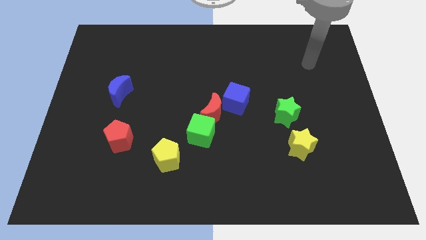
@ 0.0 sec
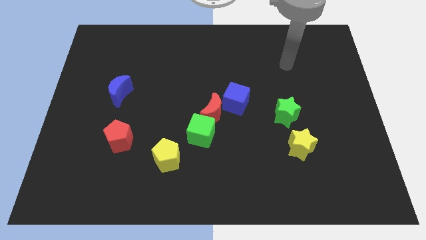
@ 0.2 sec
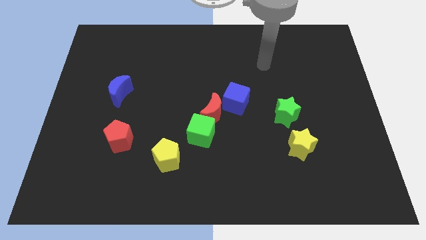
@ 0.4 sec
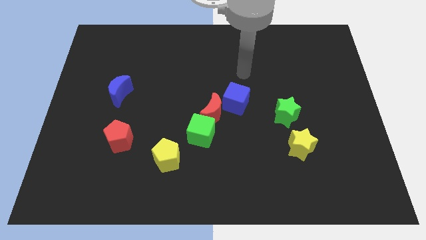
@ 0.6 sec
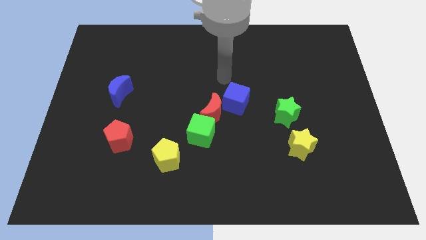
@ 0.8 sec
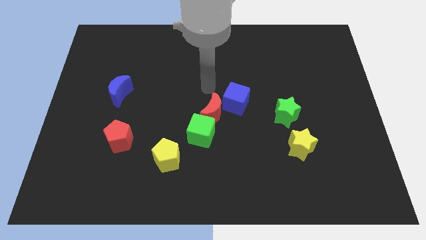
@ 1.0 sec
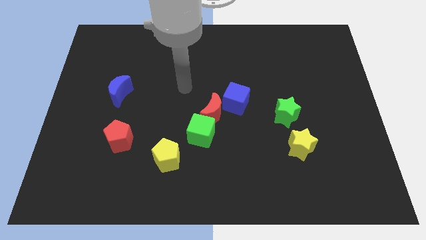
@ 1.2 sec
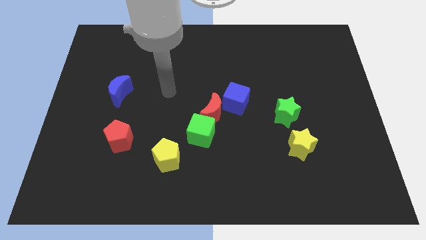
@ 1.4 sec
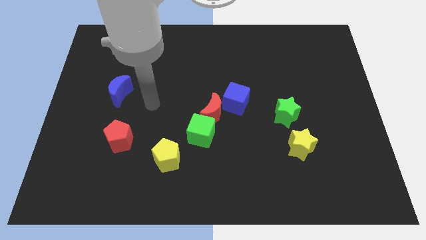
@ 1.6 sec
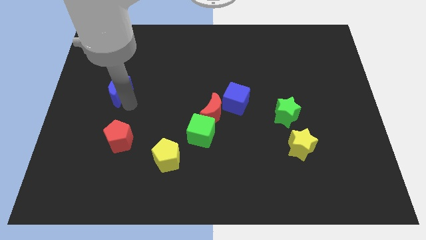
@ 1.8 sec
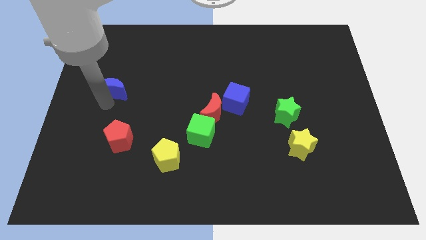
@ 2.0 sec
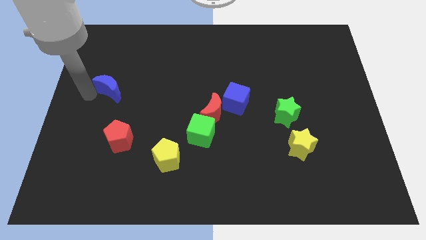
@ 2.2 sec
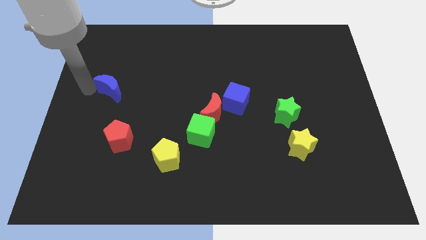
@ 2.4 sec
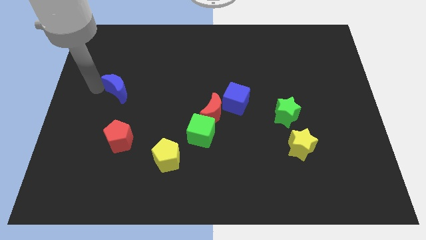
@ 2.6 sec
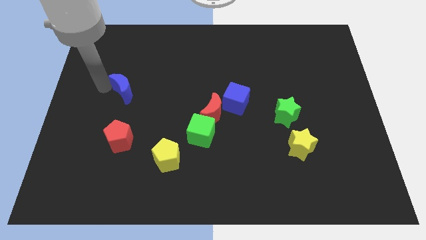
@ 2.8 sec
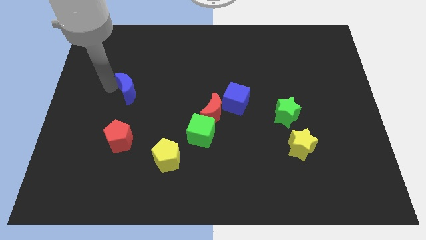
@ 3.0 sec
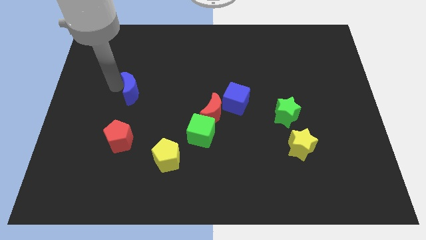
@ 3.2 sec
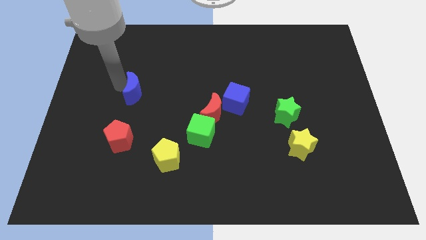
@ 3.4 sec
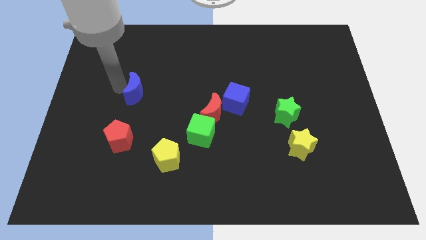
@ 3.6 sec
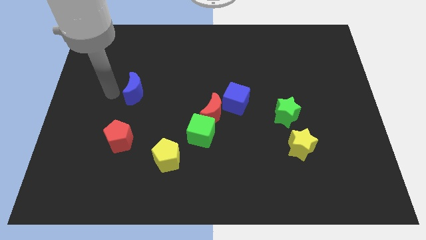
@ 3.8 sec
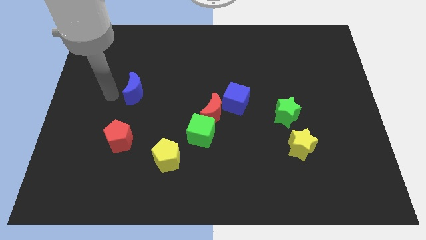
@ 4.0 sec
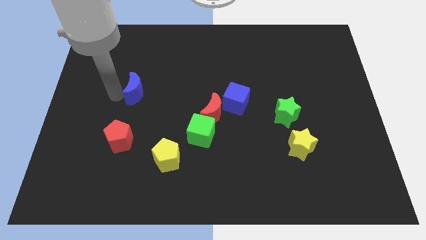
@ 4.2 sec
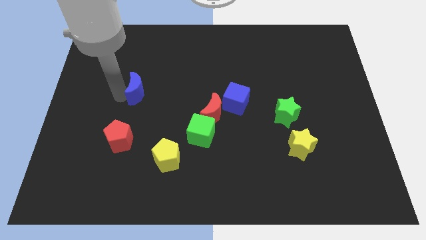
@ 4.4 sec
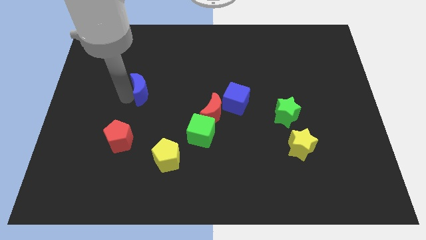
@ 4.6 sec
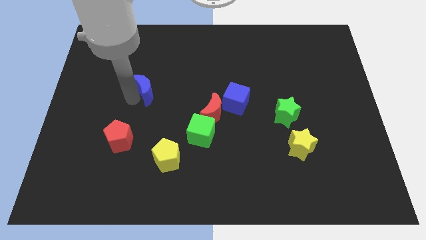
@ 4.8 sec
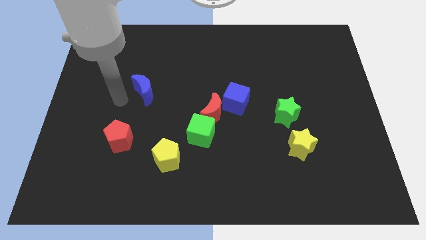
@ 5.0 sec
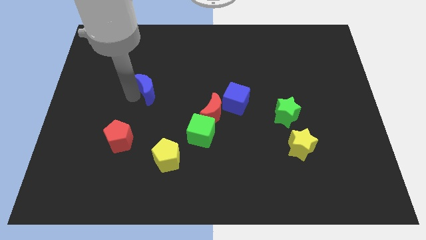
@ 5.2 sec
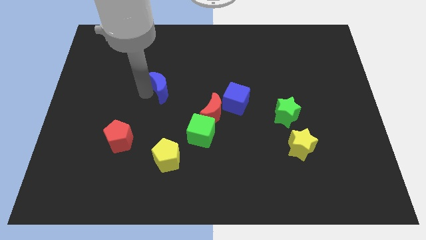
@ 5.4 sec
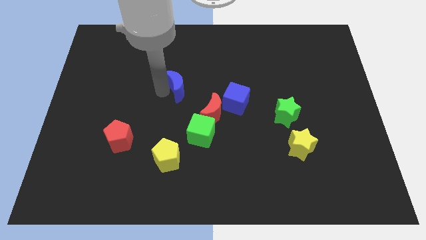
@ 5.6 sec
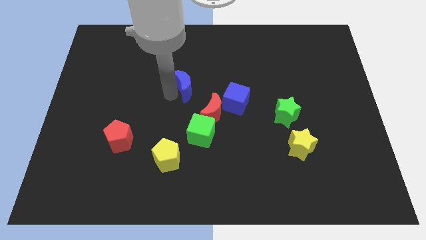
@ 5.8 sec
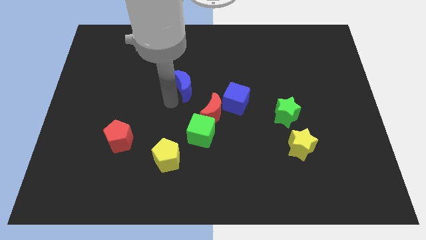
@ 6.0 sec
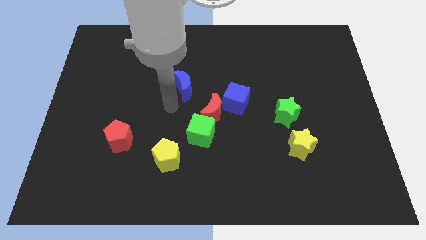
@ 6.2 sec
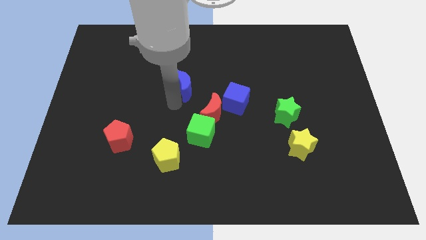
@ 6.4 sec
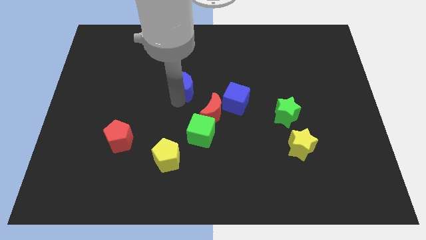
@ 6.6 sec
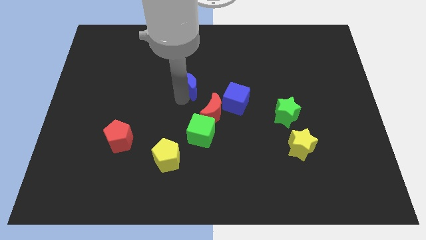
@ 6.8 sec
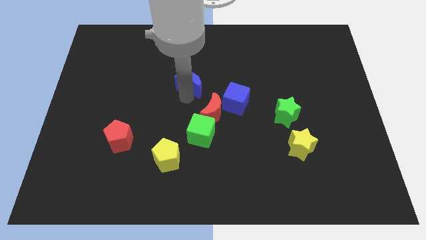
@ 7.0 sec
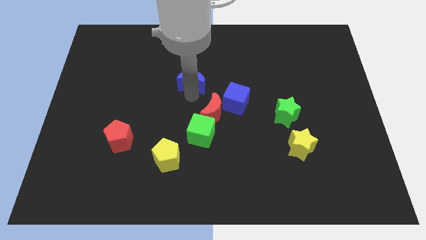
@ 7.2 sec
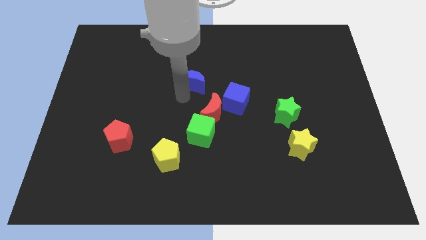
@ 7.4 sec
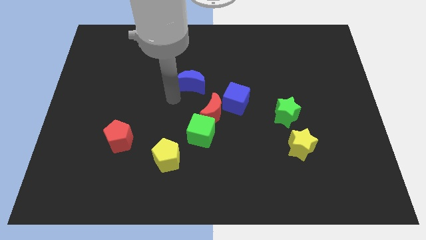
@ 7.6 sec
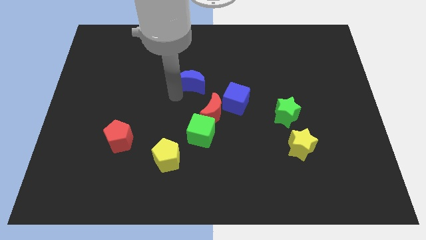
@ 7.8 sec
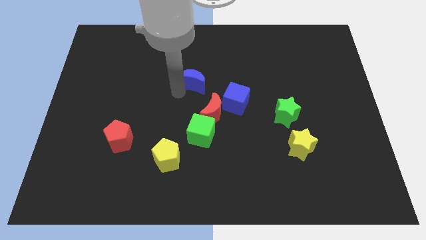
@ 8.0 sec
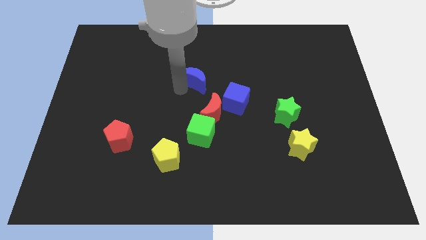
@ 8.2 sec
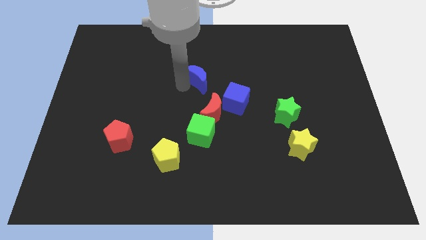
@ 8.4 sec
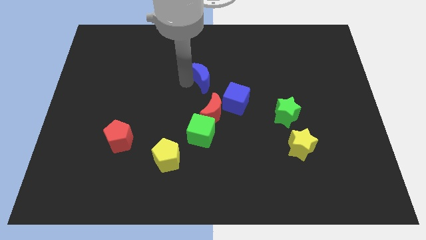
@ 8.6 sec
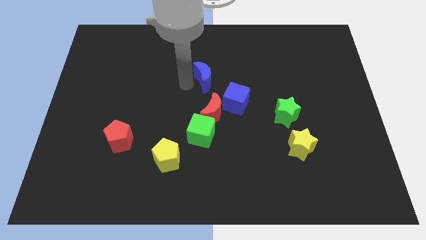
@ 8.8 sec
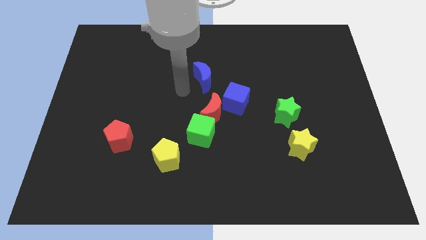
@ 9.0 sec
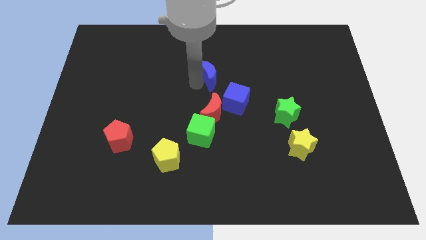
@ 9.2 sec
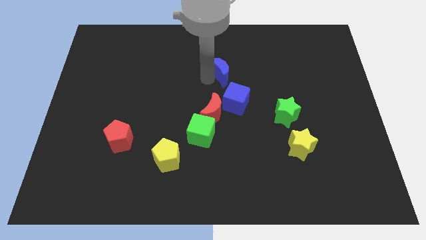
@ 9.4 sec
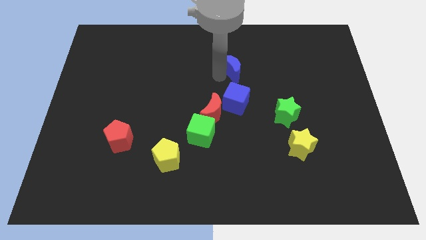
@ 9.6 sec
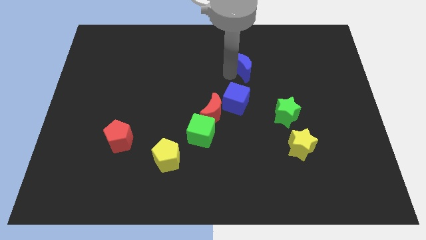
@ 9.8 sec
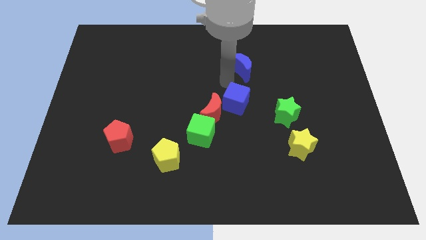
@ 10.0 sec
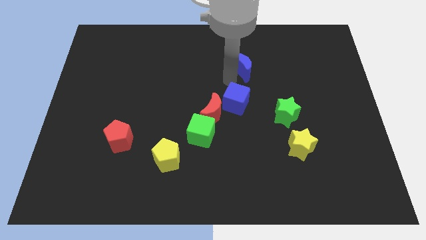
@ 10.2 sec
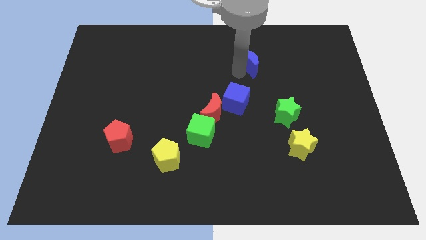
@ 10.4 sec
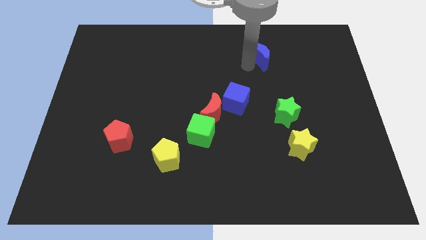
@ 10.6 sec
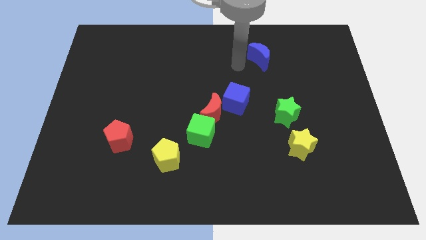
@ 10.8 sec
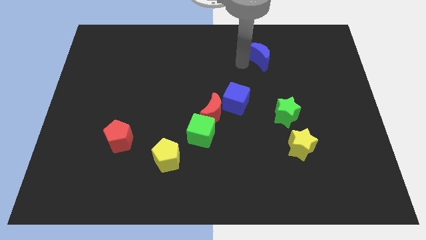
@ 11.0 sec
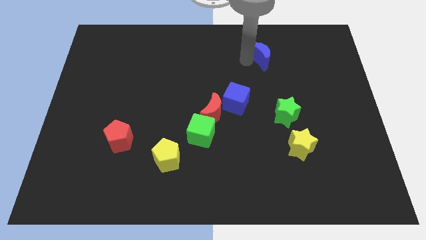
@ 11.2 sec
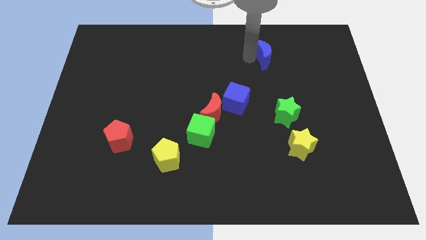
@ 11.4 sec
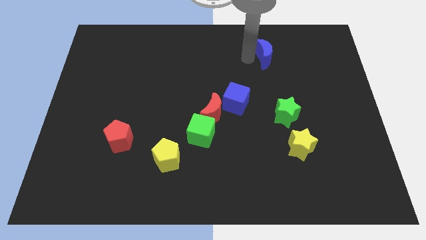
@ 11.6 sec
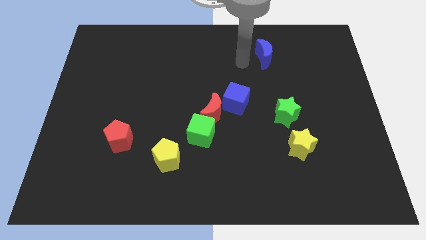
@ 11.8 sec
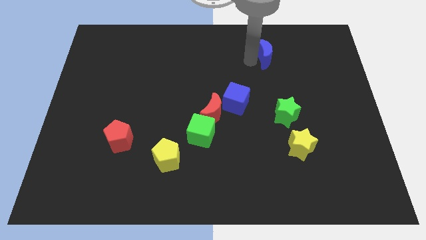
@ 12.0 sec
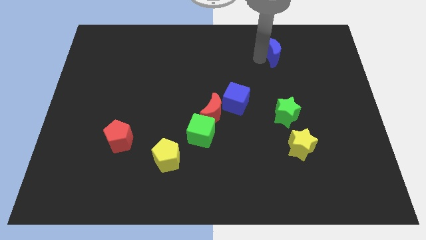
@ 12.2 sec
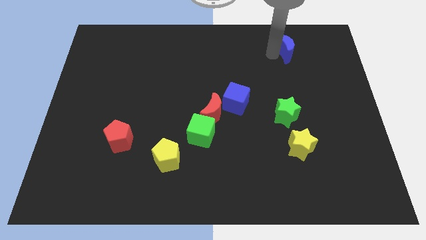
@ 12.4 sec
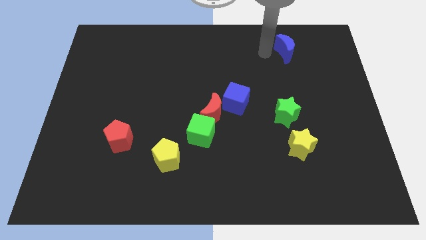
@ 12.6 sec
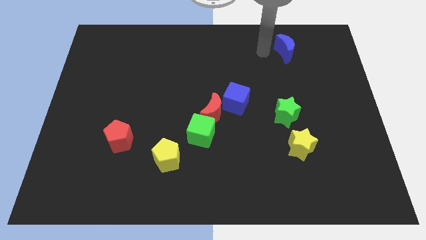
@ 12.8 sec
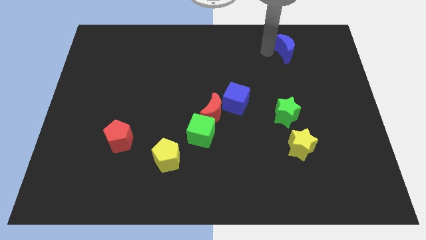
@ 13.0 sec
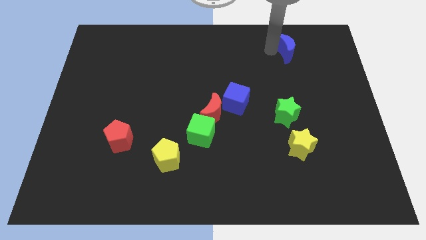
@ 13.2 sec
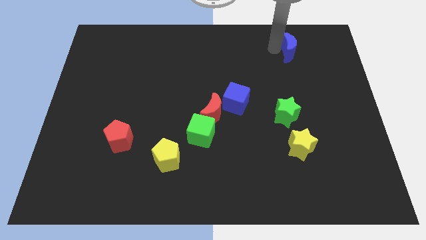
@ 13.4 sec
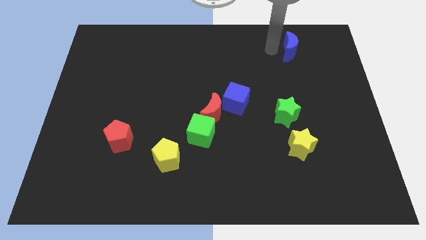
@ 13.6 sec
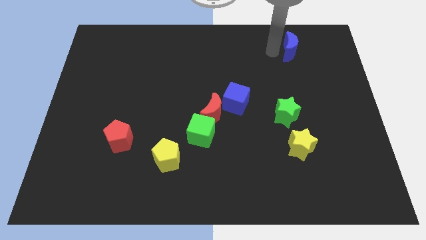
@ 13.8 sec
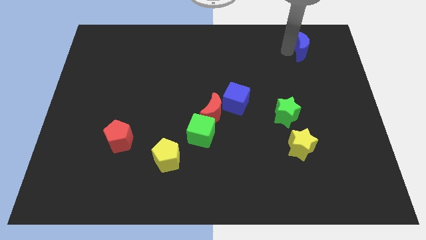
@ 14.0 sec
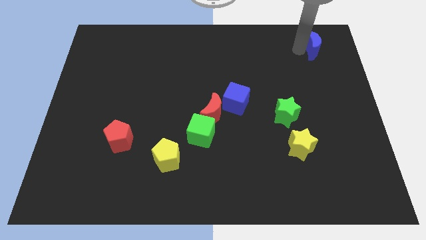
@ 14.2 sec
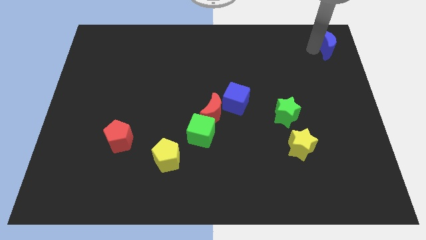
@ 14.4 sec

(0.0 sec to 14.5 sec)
put the blue moon to the top right corner
